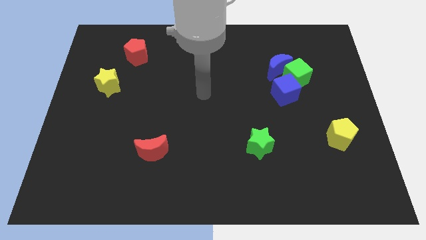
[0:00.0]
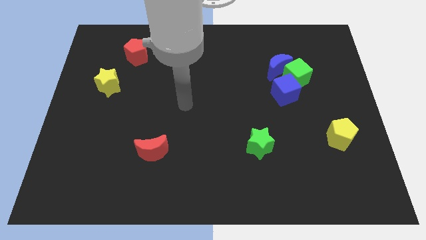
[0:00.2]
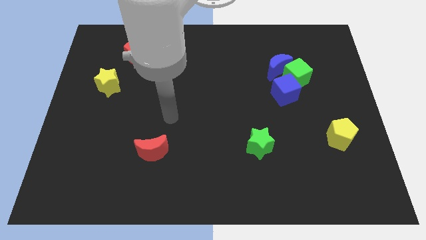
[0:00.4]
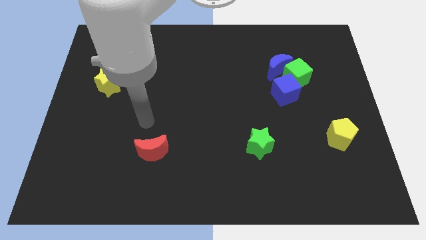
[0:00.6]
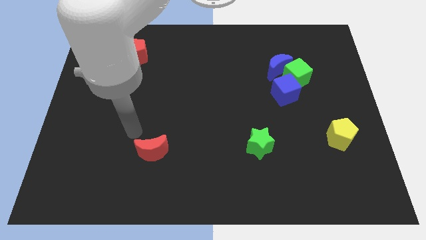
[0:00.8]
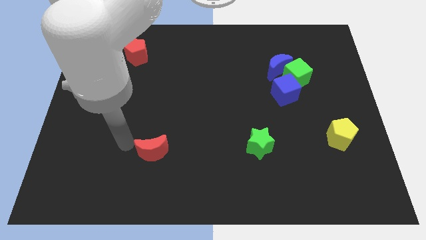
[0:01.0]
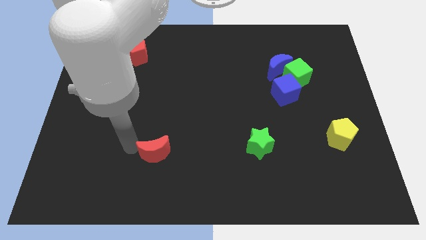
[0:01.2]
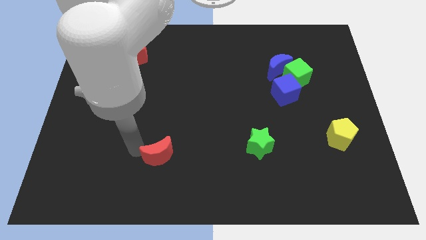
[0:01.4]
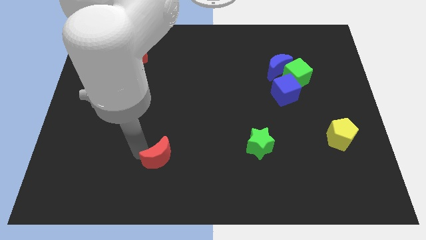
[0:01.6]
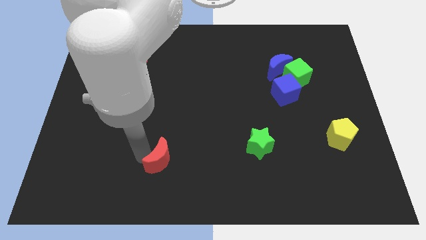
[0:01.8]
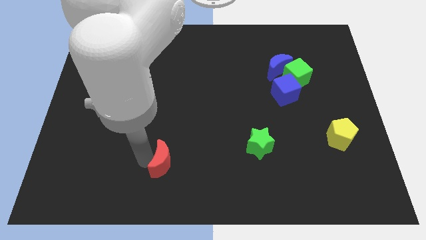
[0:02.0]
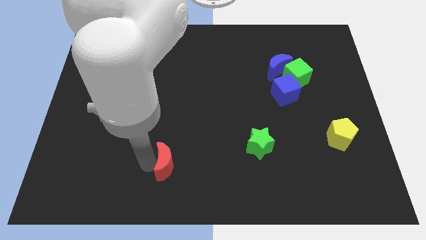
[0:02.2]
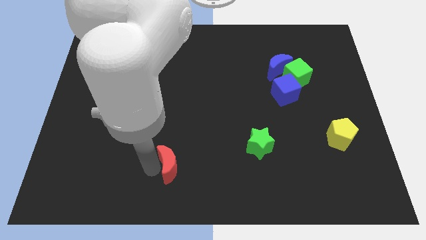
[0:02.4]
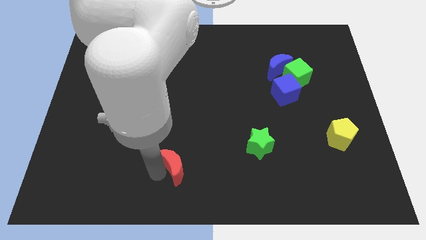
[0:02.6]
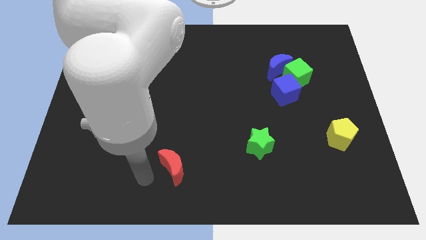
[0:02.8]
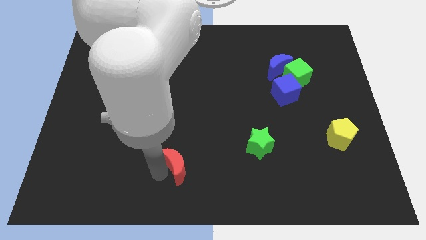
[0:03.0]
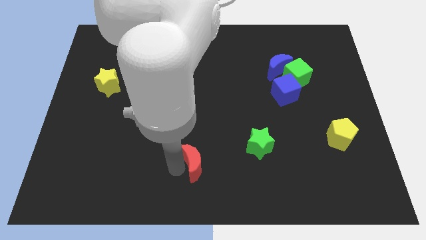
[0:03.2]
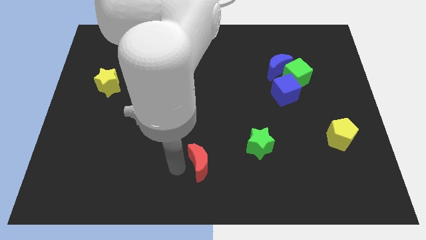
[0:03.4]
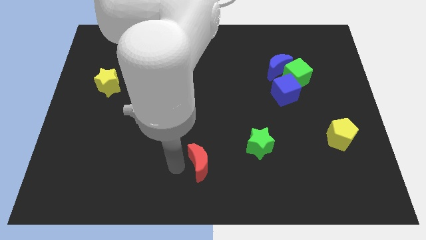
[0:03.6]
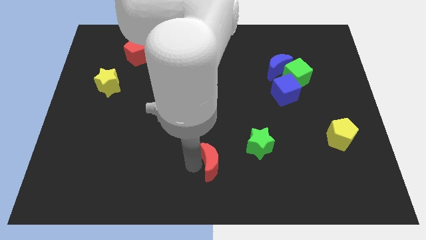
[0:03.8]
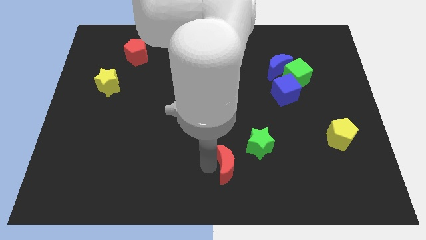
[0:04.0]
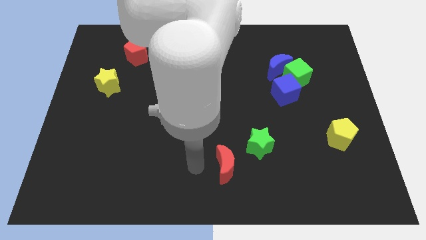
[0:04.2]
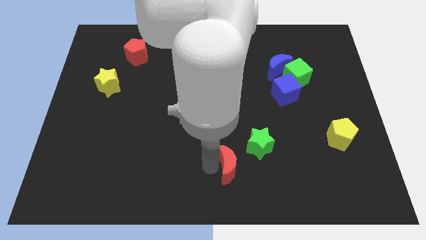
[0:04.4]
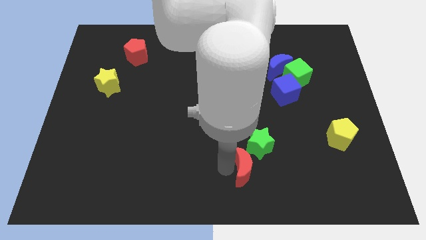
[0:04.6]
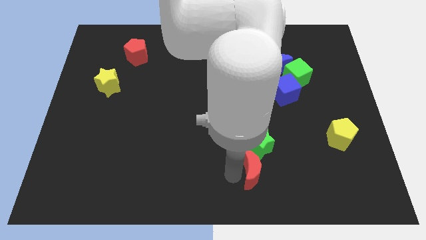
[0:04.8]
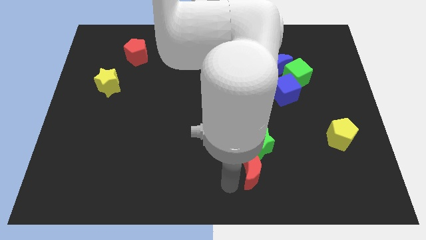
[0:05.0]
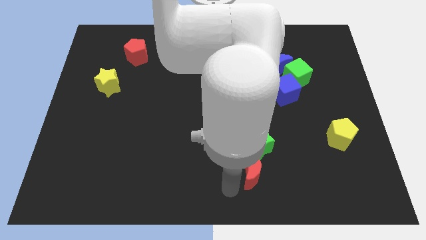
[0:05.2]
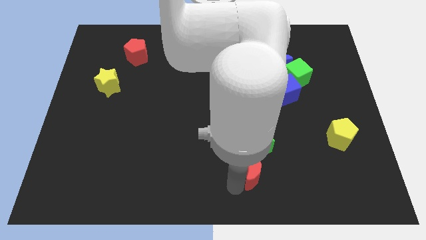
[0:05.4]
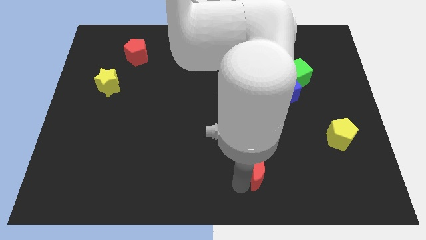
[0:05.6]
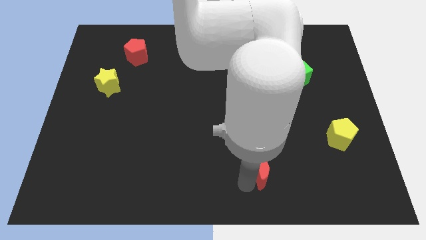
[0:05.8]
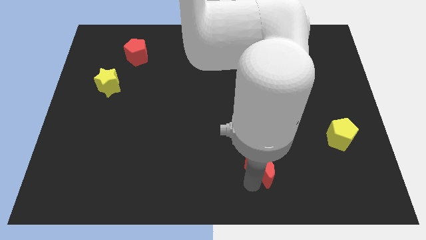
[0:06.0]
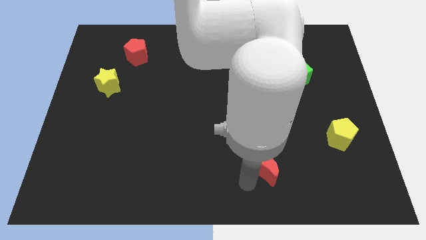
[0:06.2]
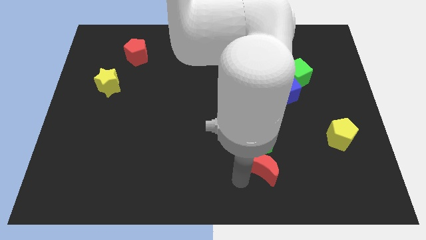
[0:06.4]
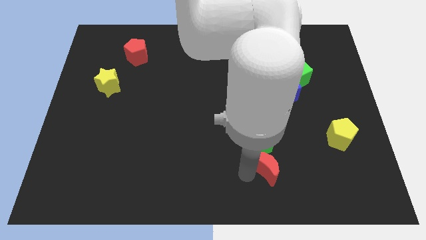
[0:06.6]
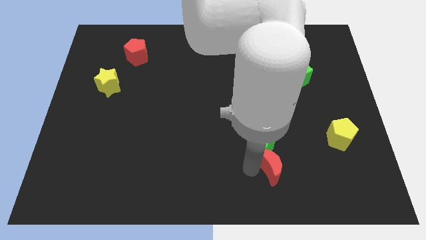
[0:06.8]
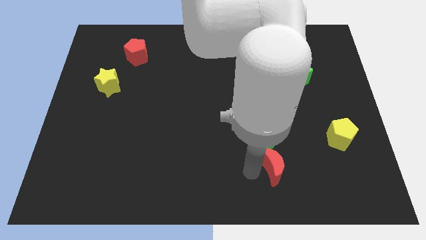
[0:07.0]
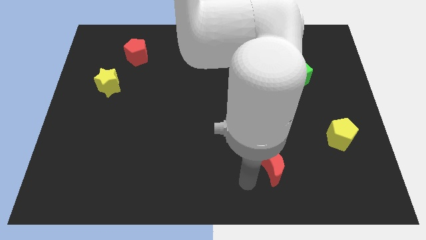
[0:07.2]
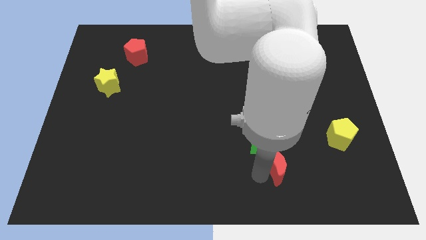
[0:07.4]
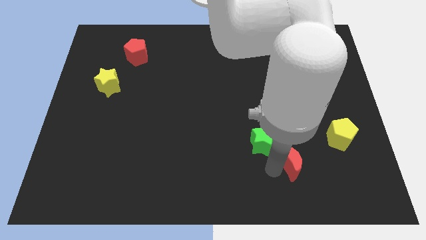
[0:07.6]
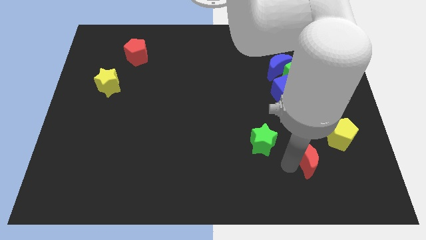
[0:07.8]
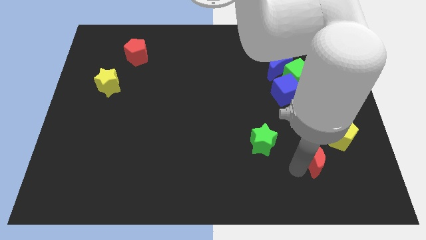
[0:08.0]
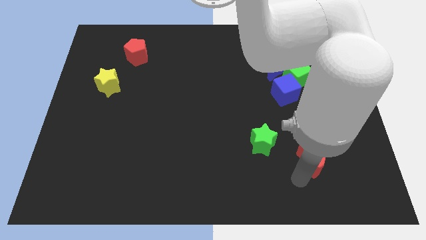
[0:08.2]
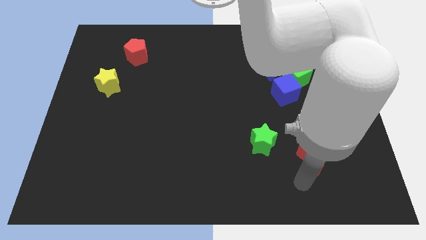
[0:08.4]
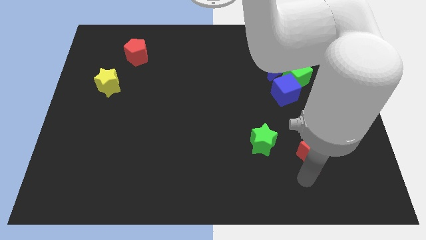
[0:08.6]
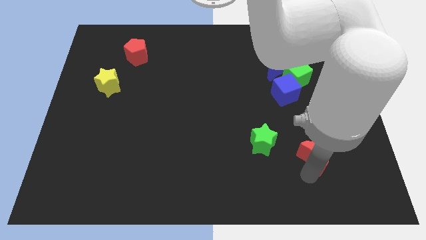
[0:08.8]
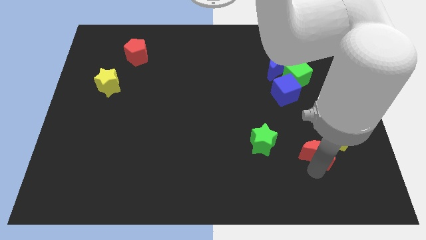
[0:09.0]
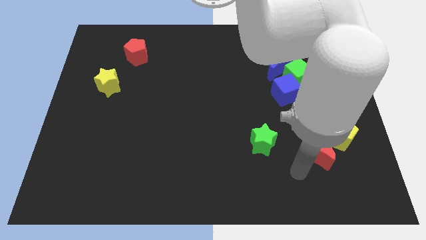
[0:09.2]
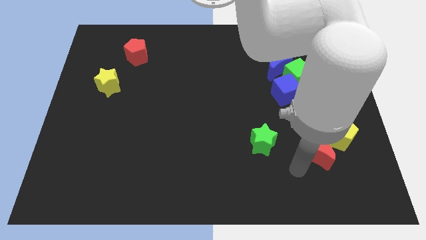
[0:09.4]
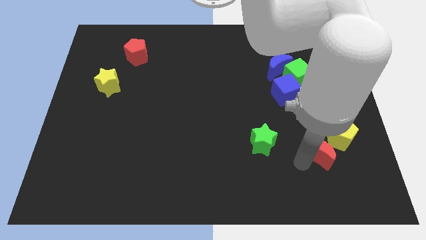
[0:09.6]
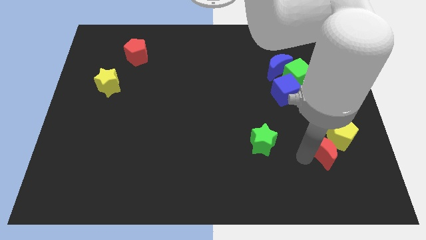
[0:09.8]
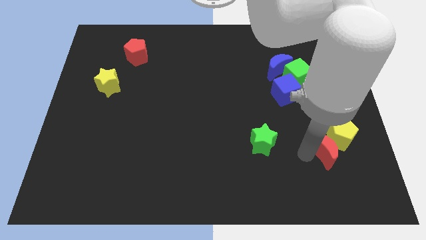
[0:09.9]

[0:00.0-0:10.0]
push the red moon towards the yellow pentagon

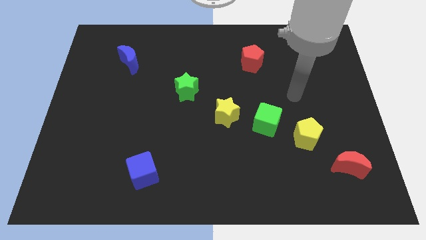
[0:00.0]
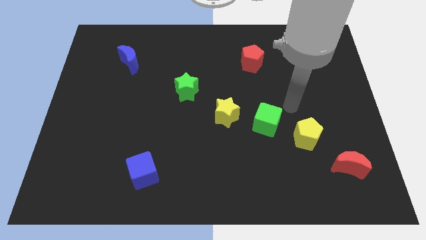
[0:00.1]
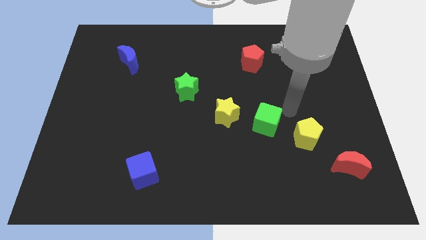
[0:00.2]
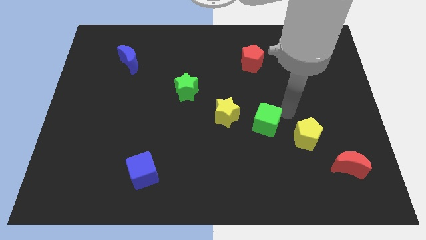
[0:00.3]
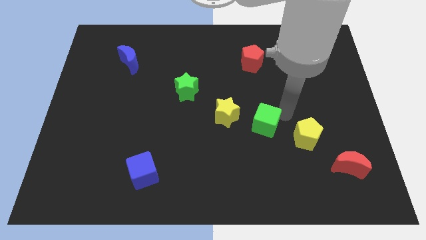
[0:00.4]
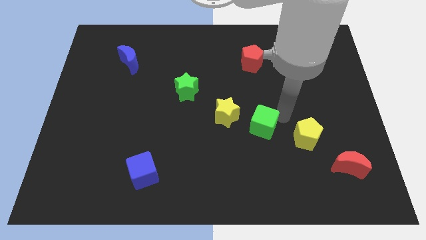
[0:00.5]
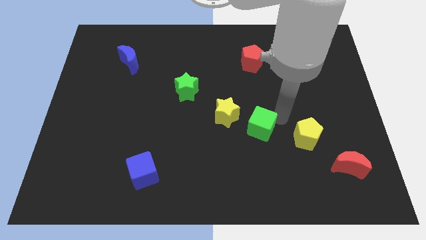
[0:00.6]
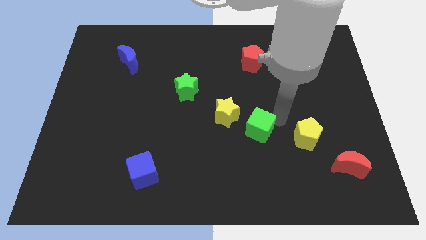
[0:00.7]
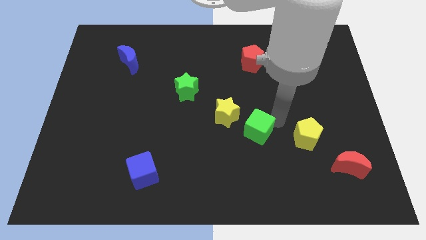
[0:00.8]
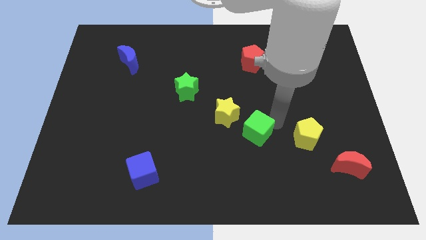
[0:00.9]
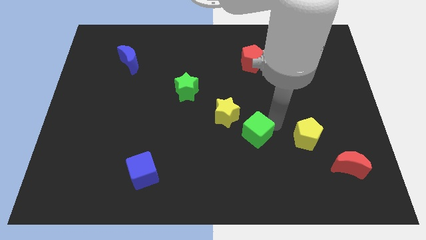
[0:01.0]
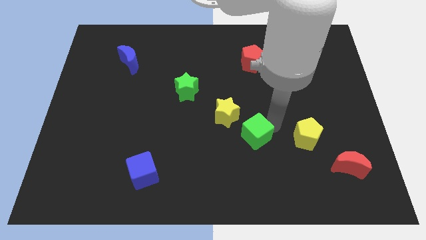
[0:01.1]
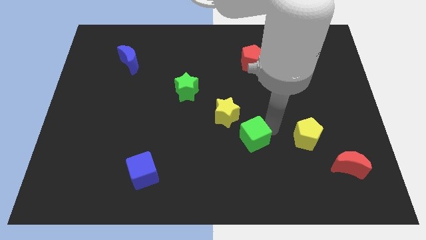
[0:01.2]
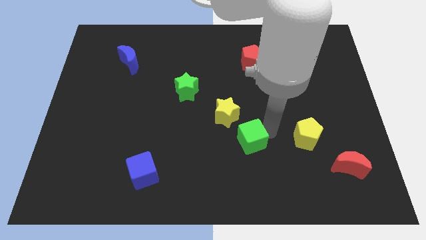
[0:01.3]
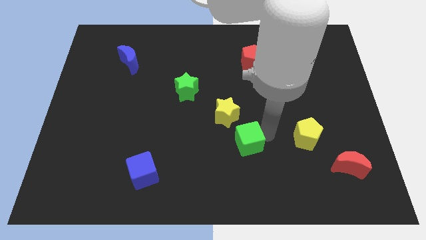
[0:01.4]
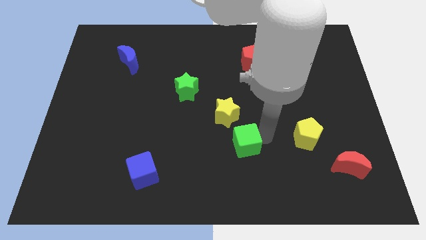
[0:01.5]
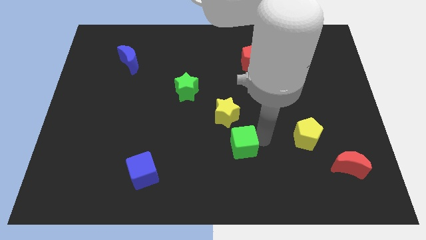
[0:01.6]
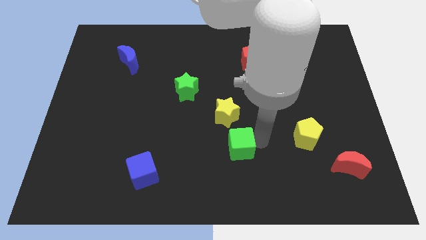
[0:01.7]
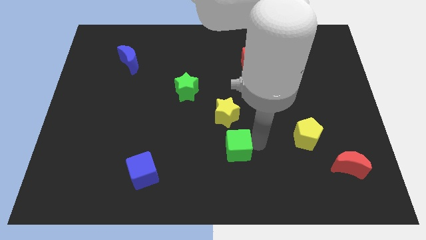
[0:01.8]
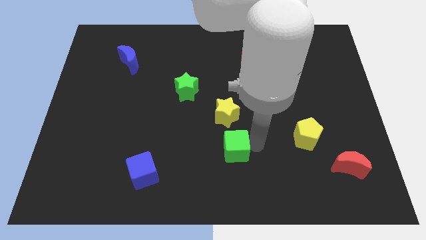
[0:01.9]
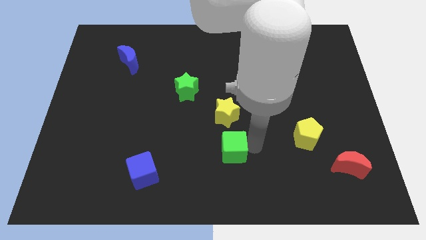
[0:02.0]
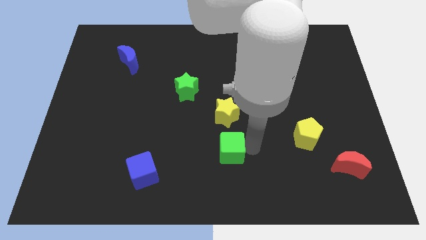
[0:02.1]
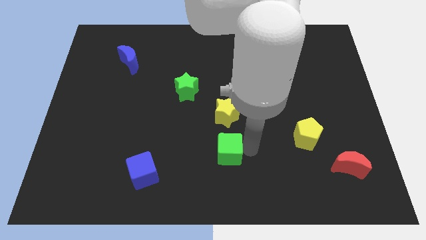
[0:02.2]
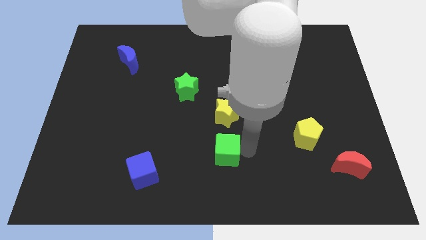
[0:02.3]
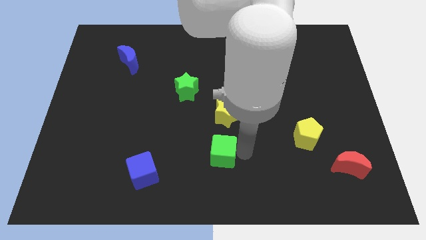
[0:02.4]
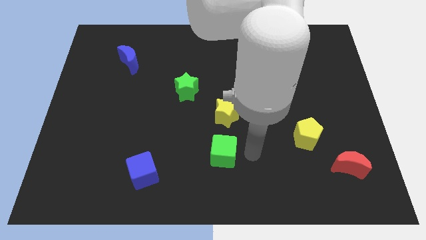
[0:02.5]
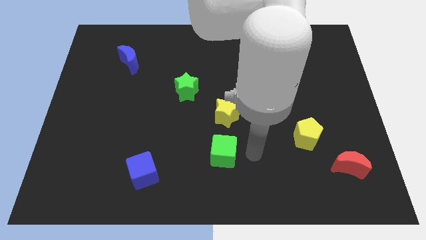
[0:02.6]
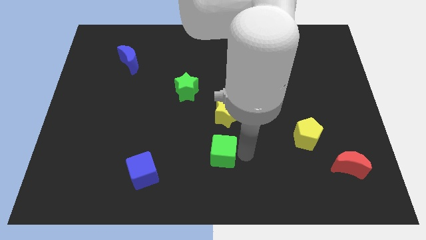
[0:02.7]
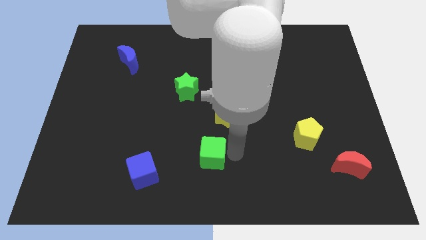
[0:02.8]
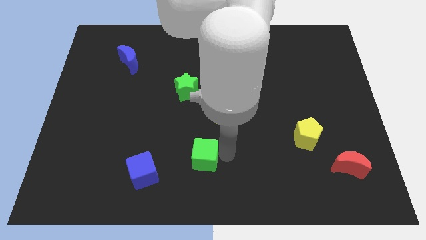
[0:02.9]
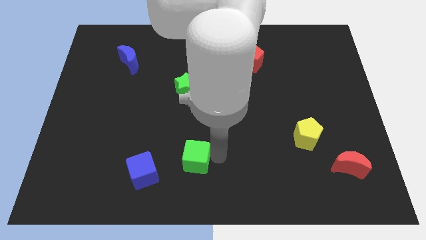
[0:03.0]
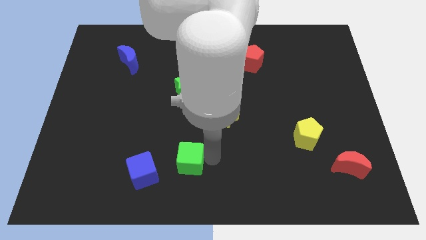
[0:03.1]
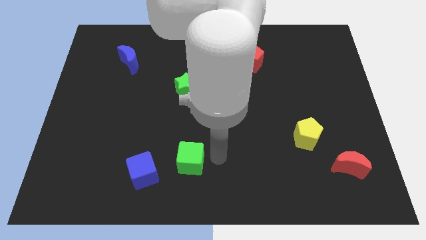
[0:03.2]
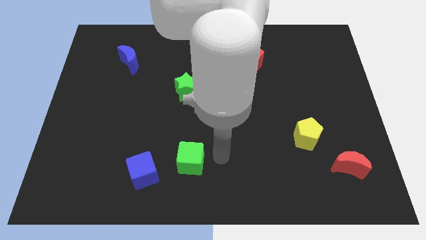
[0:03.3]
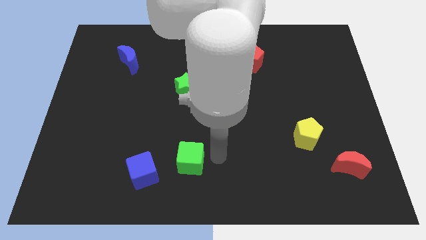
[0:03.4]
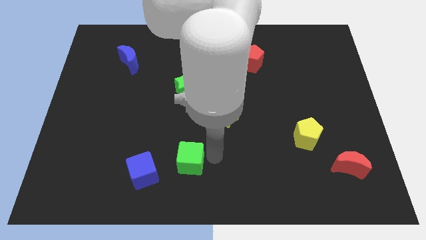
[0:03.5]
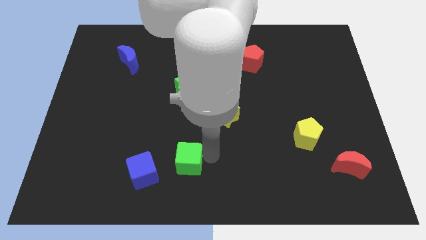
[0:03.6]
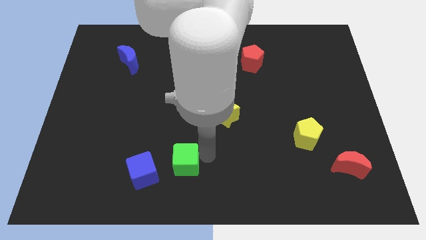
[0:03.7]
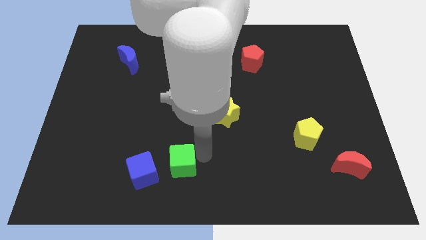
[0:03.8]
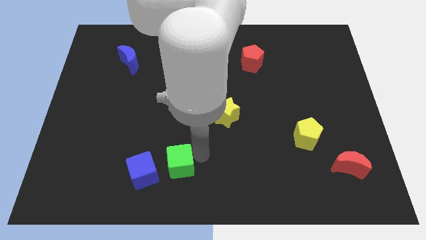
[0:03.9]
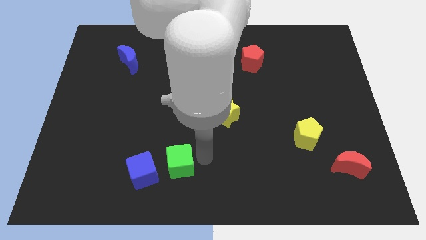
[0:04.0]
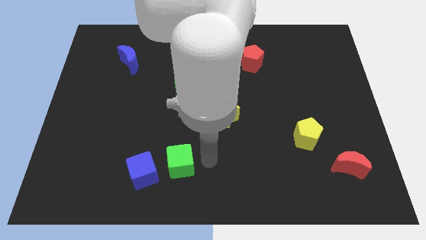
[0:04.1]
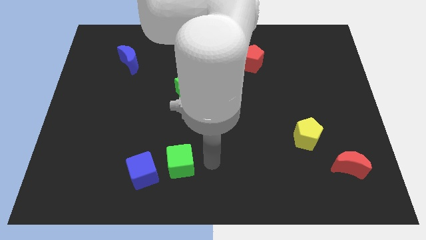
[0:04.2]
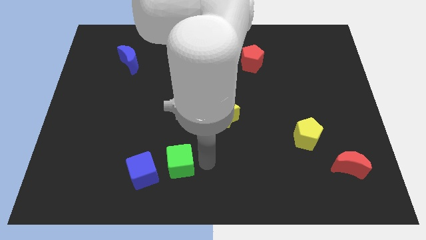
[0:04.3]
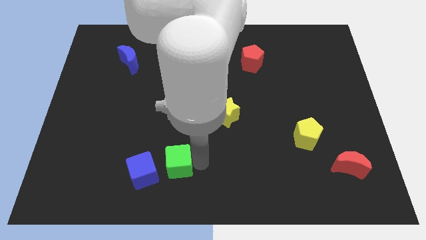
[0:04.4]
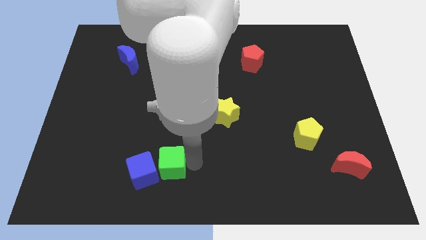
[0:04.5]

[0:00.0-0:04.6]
push the green cube next to the blue cube
